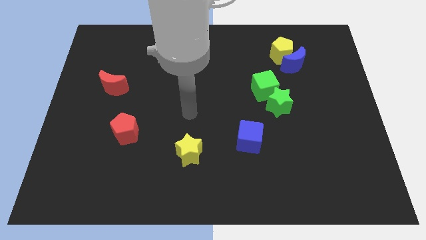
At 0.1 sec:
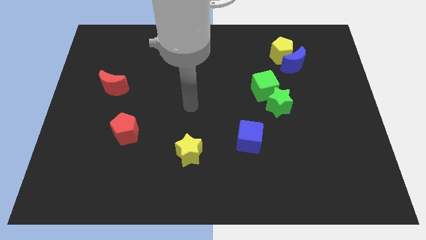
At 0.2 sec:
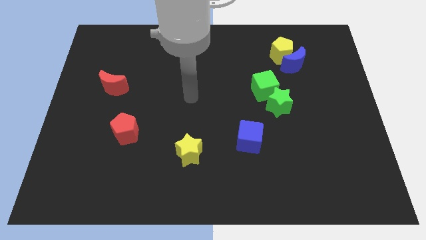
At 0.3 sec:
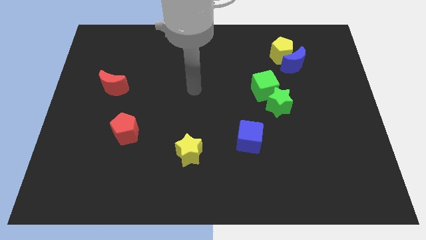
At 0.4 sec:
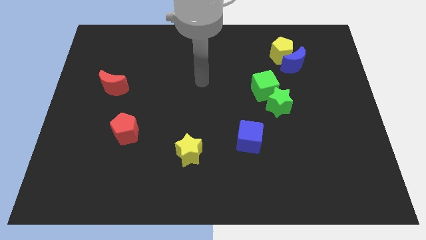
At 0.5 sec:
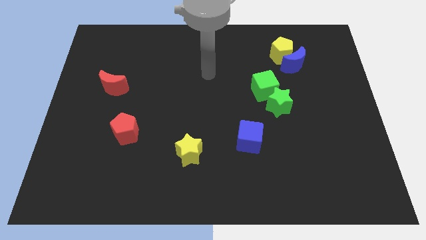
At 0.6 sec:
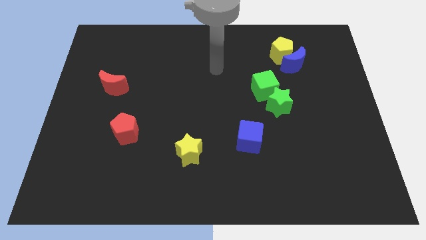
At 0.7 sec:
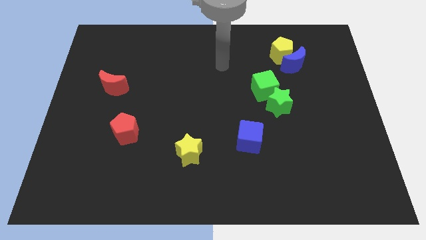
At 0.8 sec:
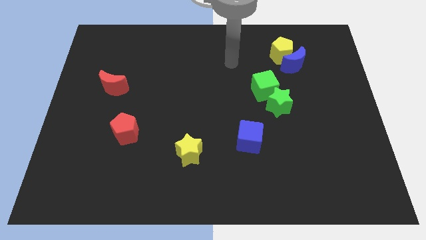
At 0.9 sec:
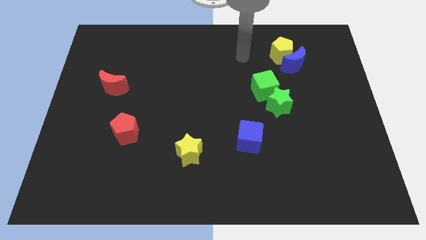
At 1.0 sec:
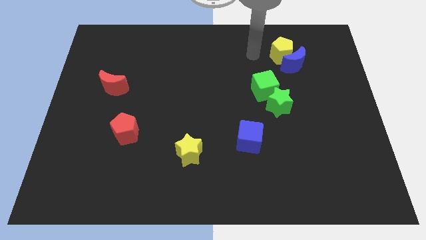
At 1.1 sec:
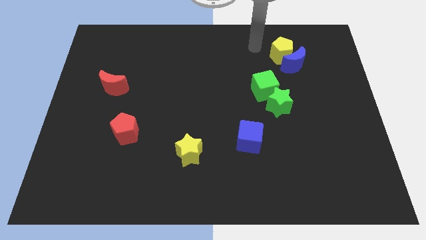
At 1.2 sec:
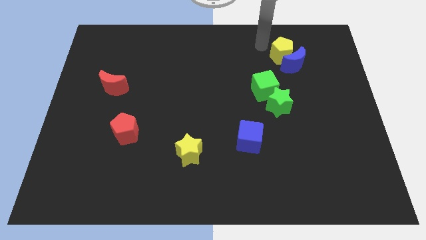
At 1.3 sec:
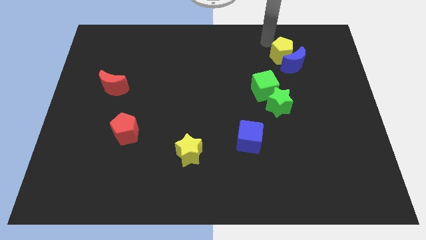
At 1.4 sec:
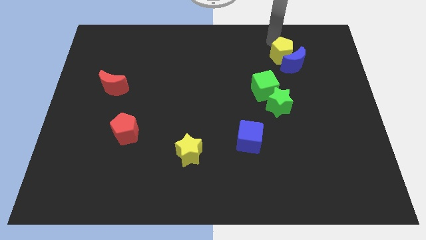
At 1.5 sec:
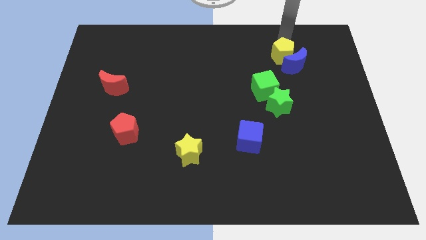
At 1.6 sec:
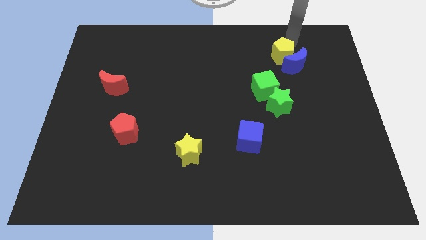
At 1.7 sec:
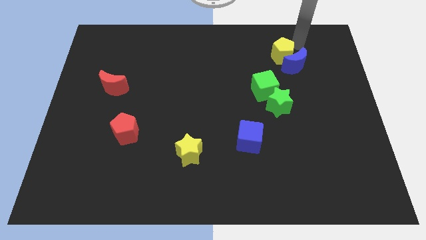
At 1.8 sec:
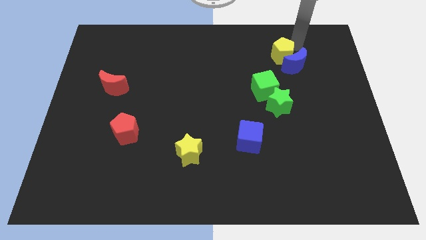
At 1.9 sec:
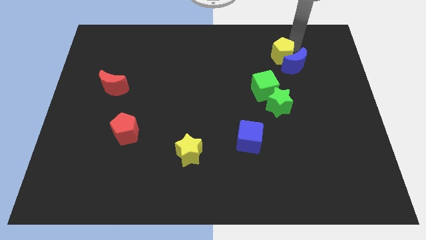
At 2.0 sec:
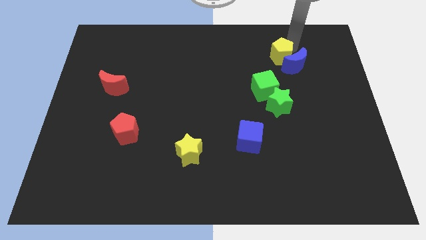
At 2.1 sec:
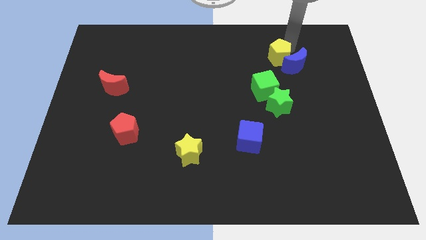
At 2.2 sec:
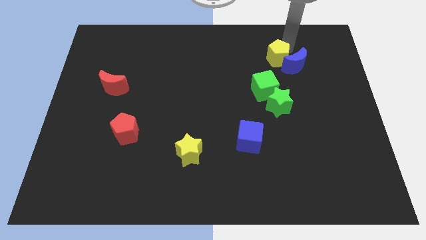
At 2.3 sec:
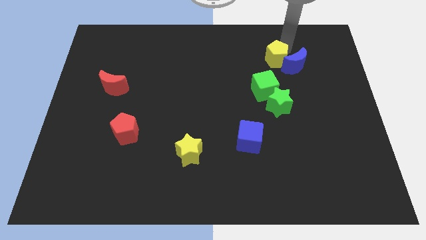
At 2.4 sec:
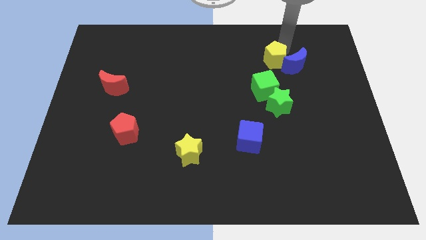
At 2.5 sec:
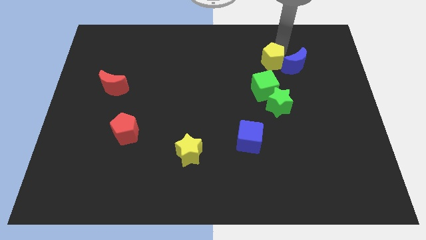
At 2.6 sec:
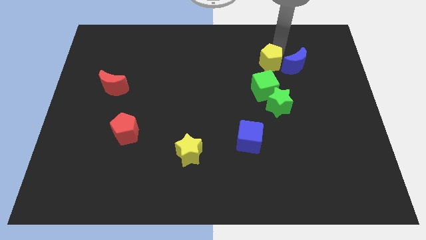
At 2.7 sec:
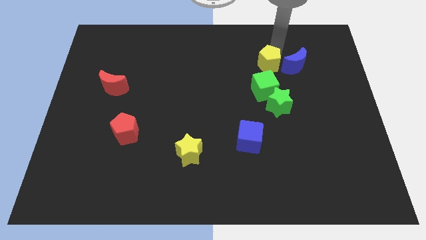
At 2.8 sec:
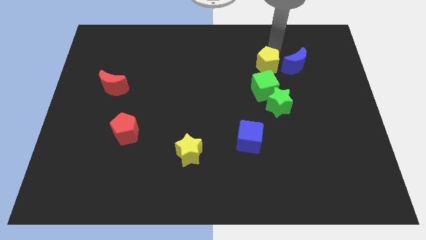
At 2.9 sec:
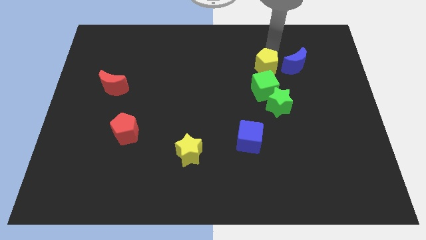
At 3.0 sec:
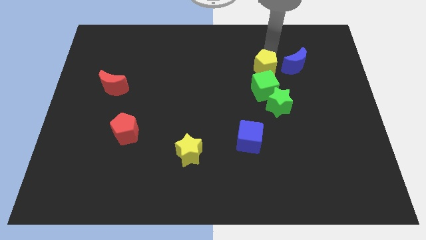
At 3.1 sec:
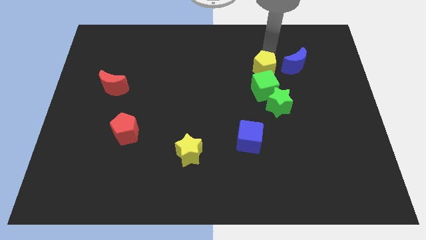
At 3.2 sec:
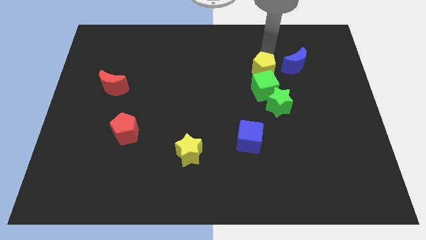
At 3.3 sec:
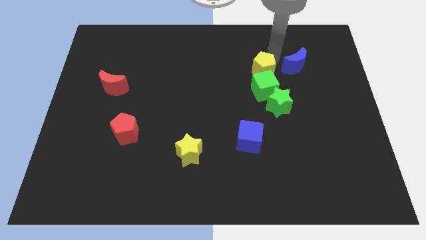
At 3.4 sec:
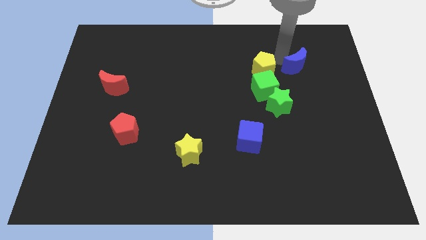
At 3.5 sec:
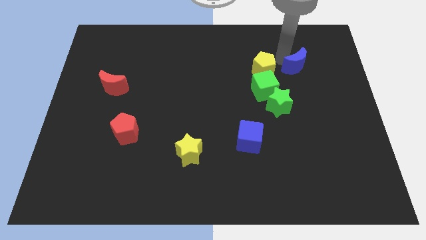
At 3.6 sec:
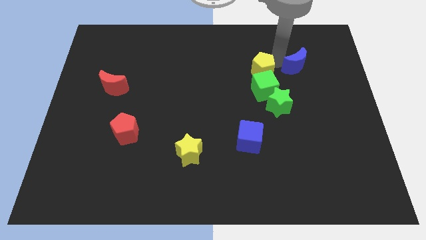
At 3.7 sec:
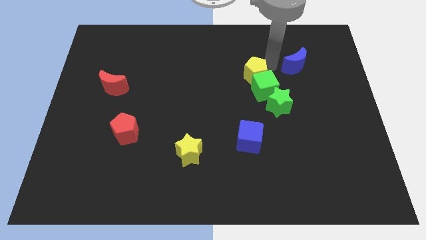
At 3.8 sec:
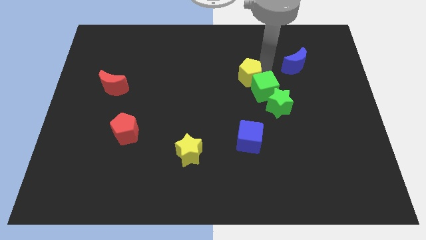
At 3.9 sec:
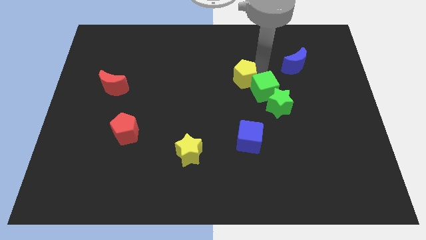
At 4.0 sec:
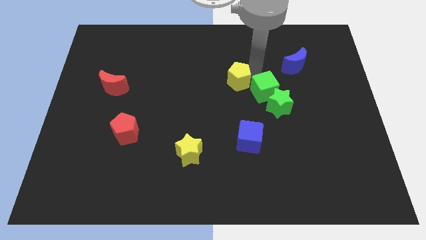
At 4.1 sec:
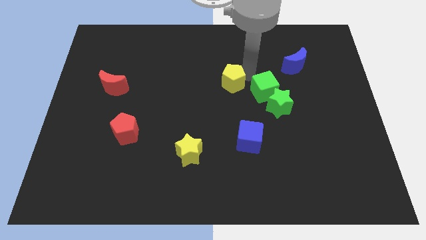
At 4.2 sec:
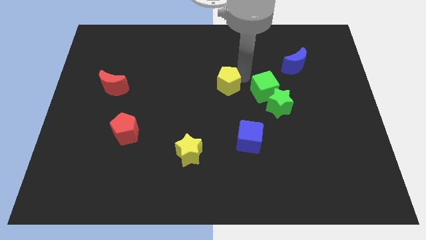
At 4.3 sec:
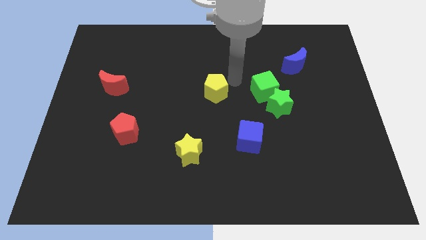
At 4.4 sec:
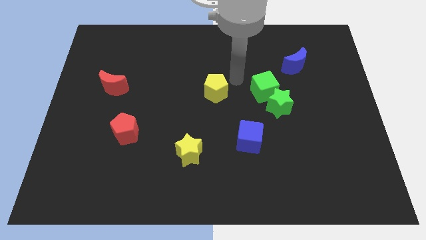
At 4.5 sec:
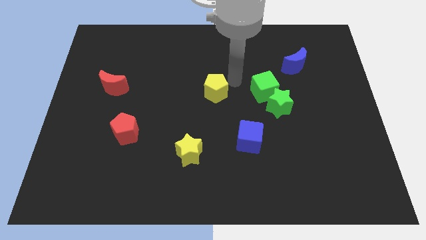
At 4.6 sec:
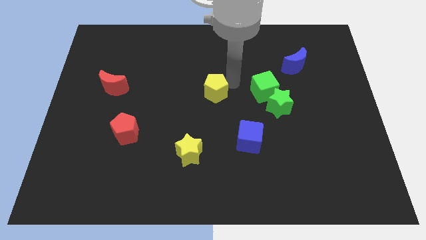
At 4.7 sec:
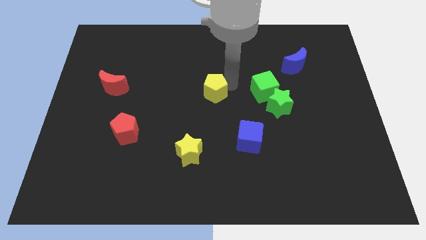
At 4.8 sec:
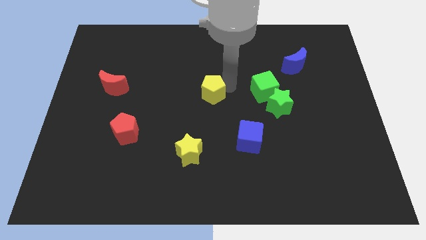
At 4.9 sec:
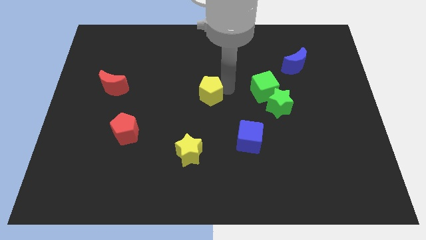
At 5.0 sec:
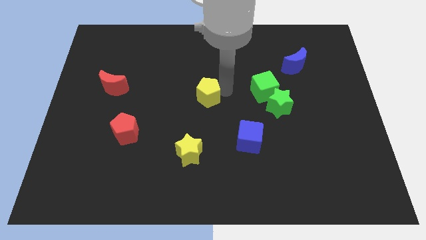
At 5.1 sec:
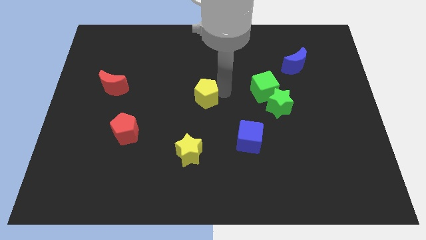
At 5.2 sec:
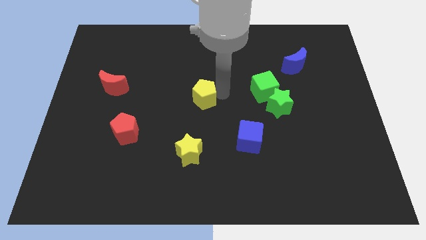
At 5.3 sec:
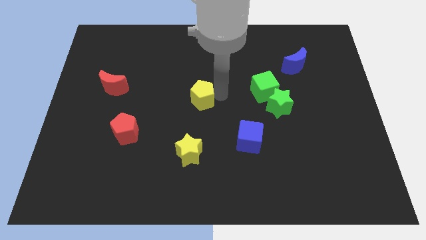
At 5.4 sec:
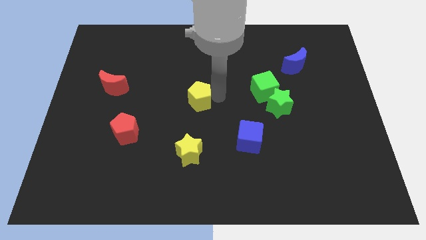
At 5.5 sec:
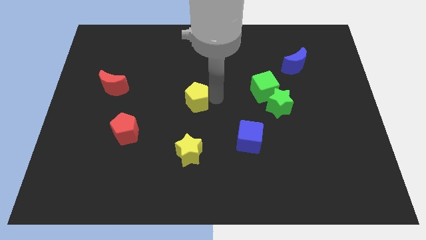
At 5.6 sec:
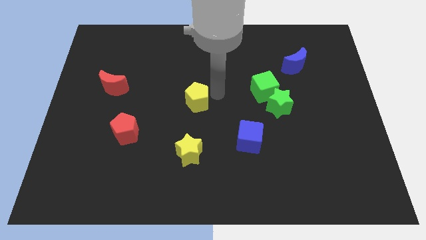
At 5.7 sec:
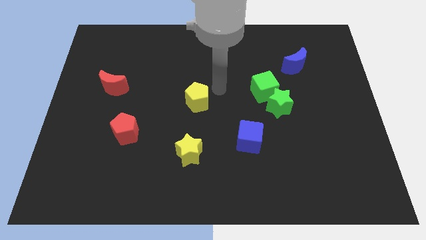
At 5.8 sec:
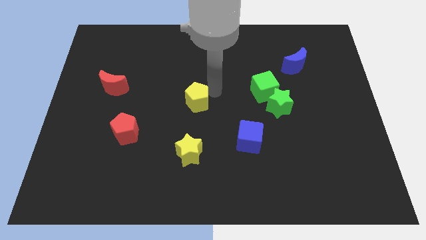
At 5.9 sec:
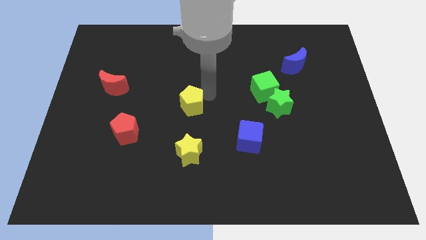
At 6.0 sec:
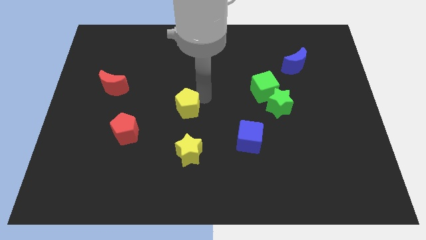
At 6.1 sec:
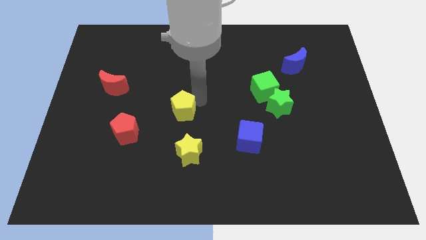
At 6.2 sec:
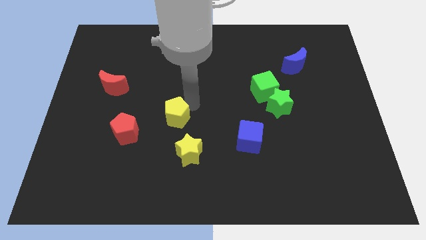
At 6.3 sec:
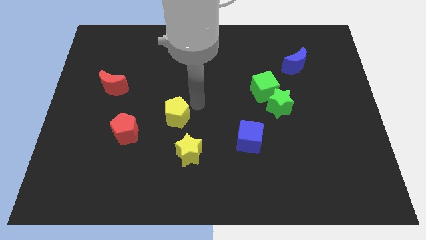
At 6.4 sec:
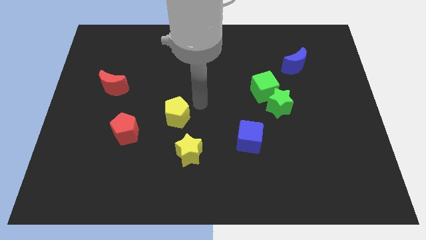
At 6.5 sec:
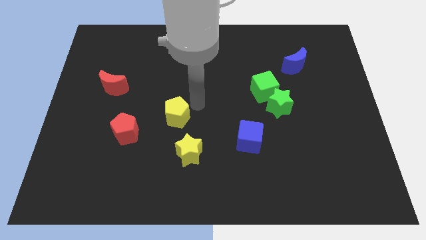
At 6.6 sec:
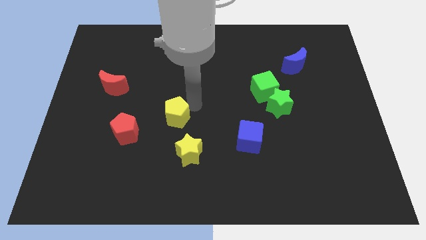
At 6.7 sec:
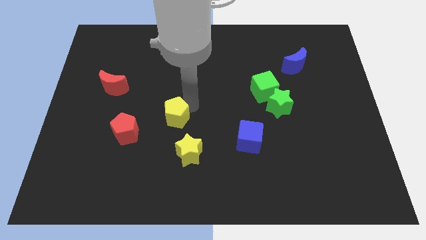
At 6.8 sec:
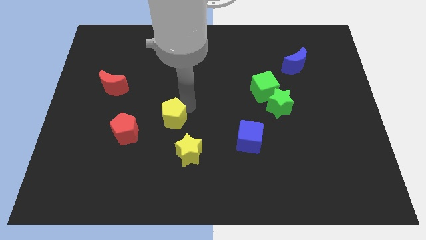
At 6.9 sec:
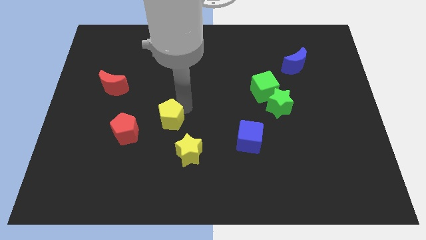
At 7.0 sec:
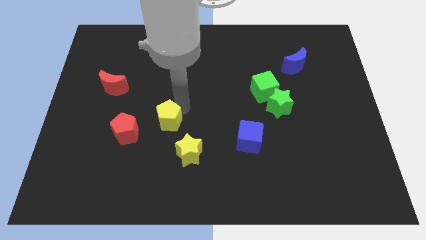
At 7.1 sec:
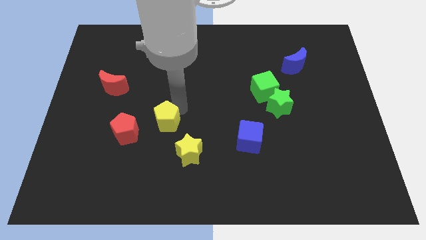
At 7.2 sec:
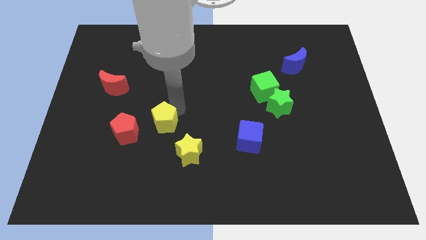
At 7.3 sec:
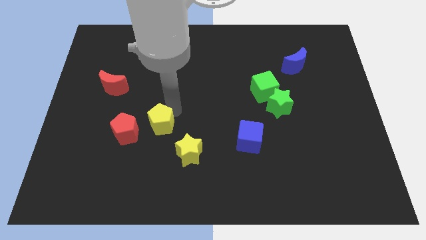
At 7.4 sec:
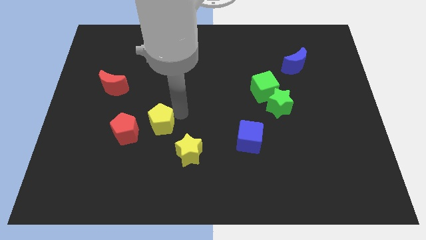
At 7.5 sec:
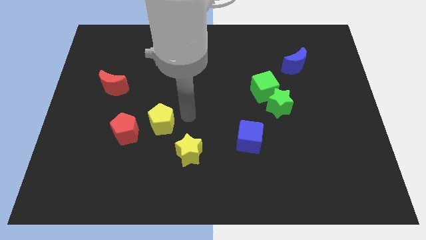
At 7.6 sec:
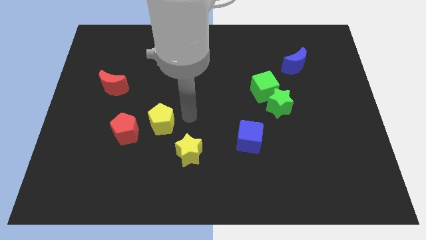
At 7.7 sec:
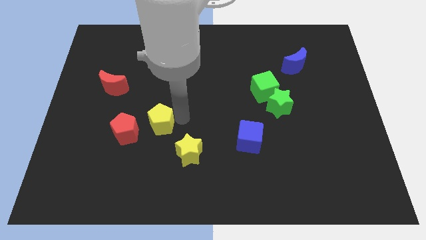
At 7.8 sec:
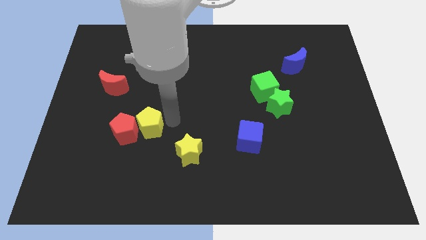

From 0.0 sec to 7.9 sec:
move the yellow pentagon close to the red pentagon
